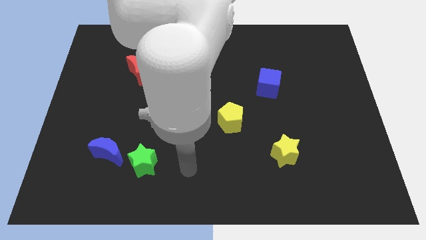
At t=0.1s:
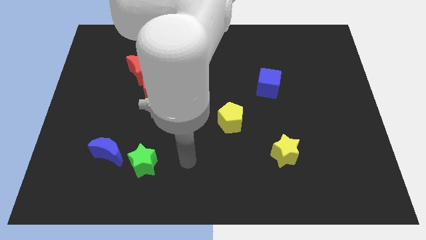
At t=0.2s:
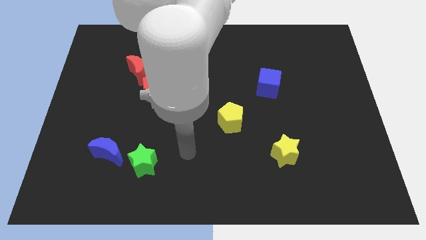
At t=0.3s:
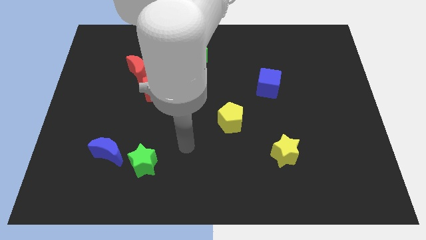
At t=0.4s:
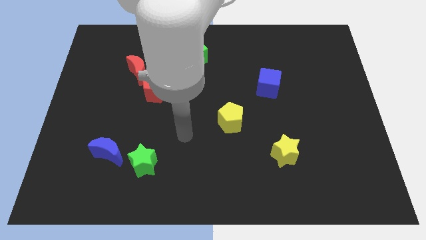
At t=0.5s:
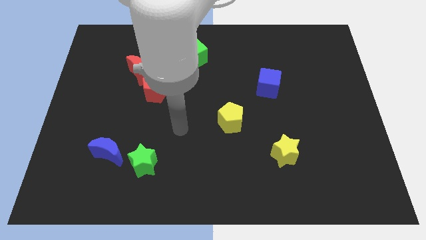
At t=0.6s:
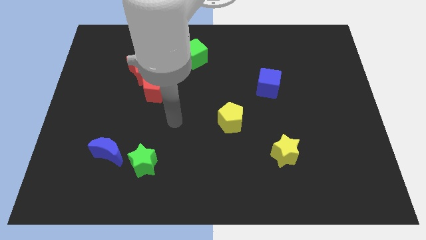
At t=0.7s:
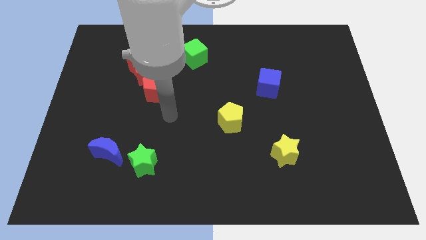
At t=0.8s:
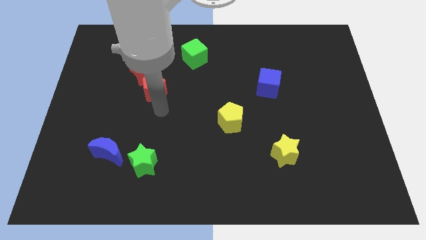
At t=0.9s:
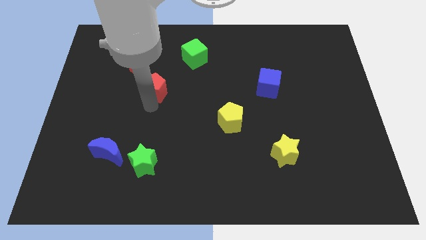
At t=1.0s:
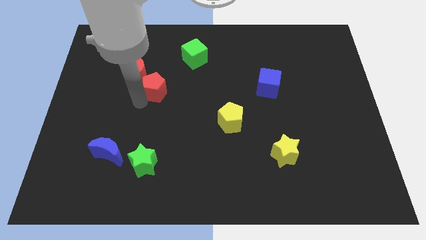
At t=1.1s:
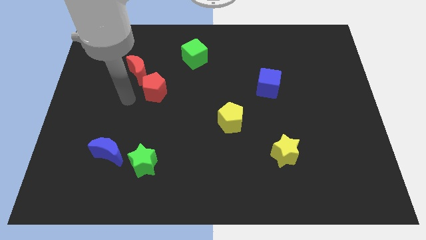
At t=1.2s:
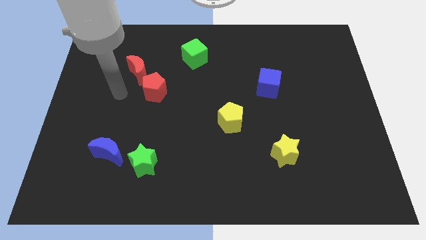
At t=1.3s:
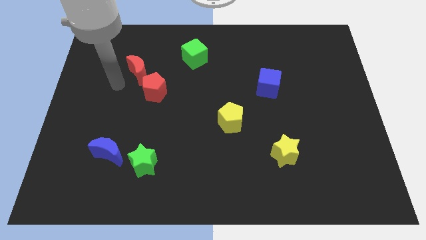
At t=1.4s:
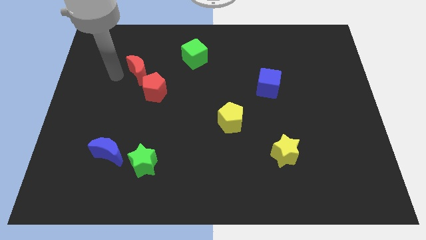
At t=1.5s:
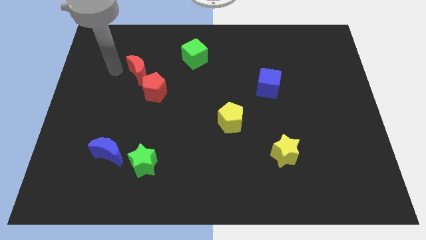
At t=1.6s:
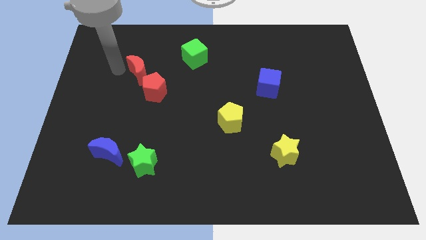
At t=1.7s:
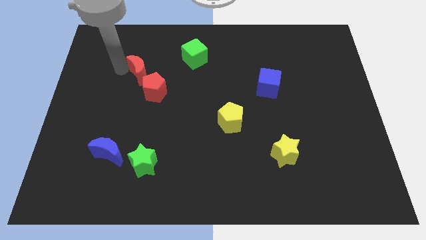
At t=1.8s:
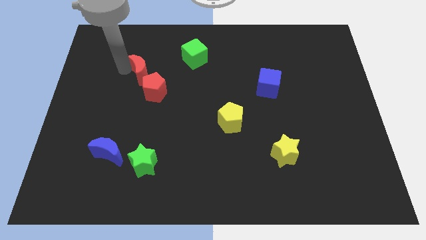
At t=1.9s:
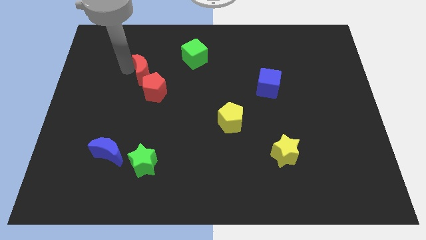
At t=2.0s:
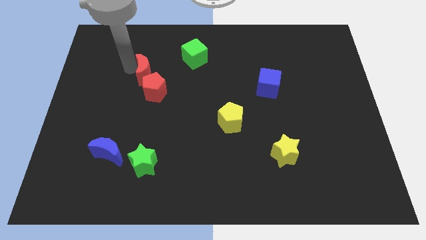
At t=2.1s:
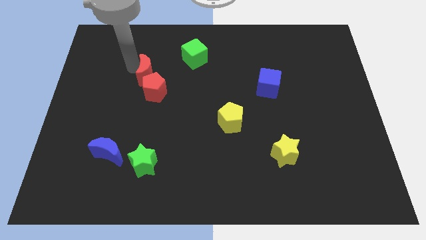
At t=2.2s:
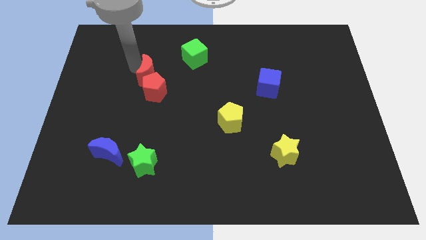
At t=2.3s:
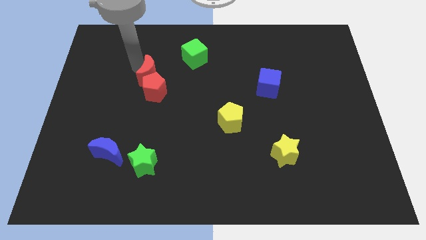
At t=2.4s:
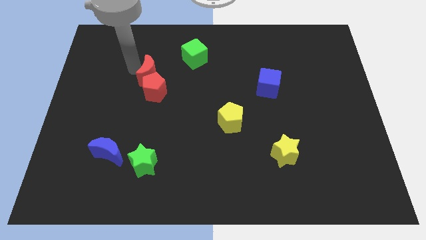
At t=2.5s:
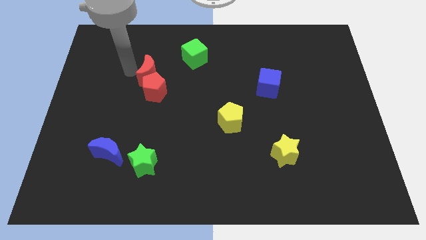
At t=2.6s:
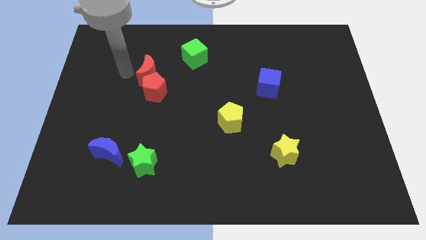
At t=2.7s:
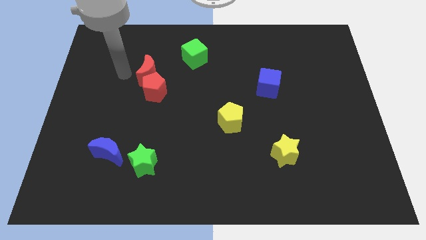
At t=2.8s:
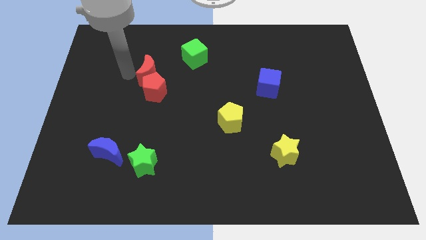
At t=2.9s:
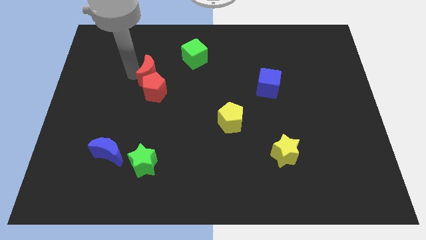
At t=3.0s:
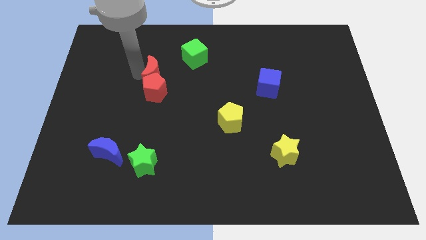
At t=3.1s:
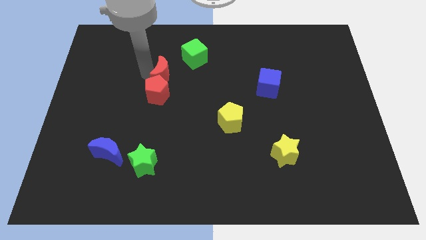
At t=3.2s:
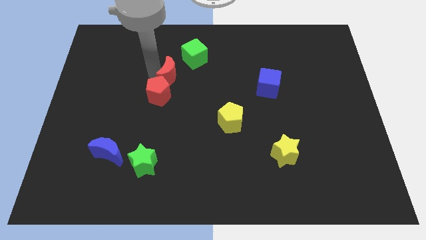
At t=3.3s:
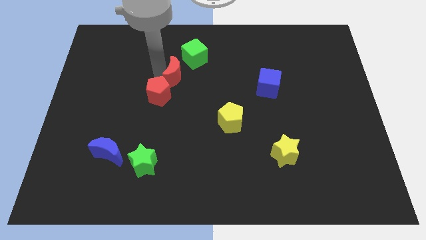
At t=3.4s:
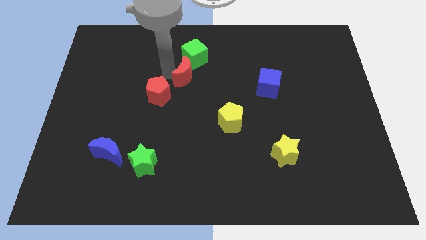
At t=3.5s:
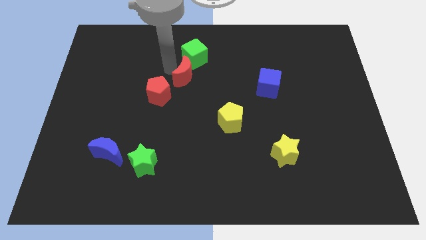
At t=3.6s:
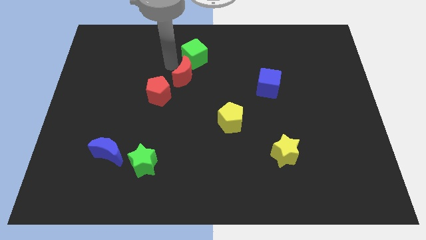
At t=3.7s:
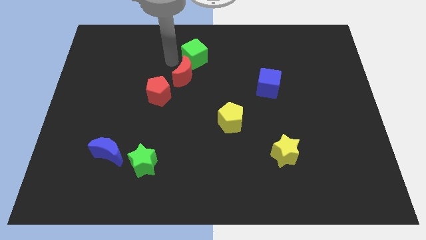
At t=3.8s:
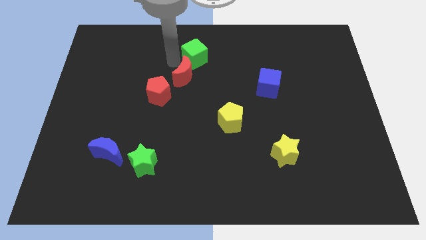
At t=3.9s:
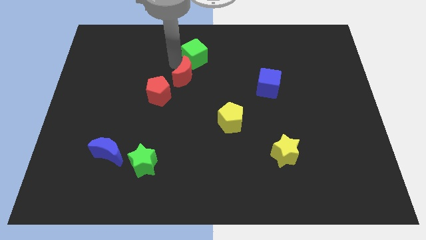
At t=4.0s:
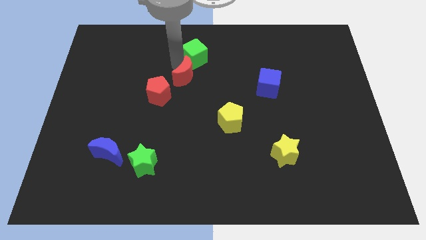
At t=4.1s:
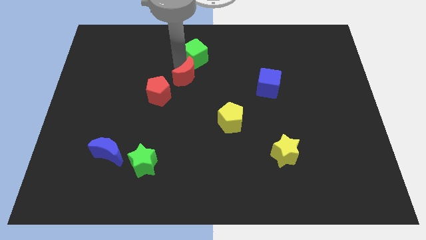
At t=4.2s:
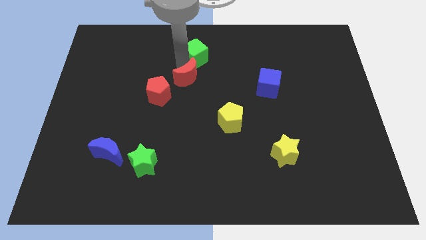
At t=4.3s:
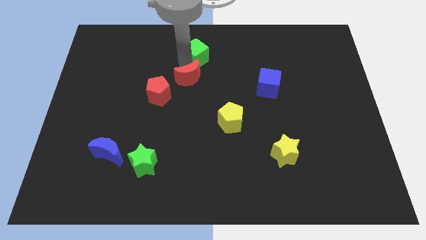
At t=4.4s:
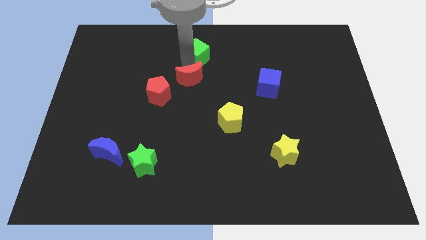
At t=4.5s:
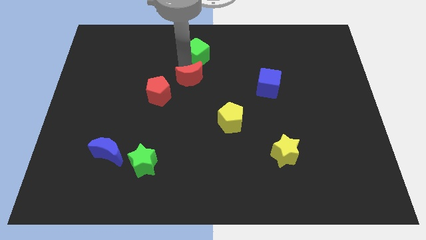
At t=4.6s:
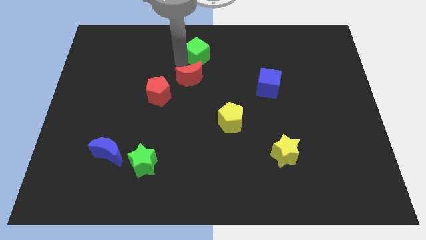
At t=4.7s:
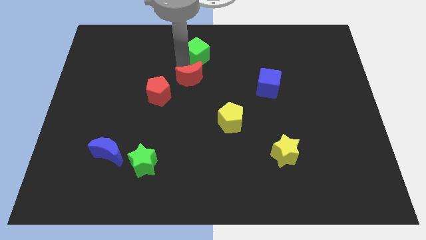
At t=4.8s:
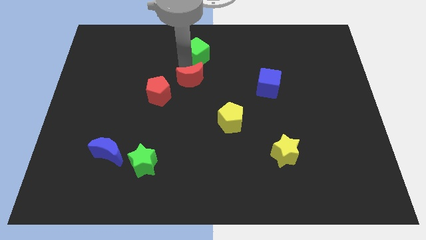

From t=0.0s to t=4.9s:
move the red moon to the right side of the red pentagon

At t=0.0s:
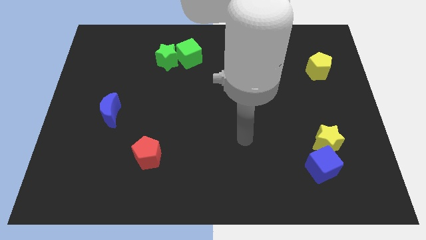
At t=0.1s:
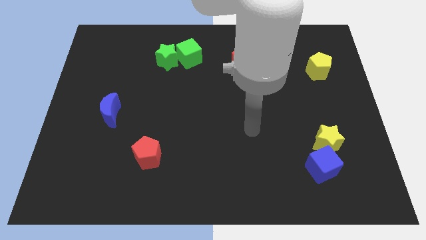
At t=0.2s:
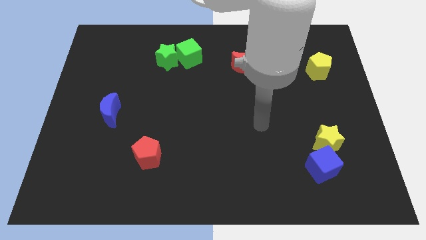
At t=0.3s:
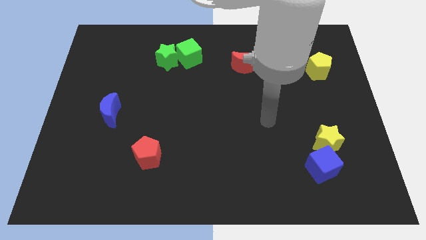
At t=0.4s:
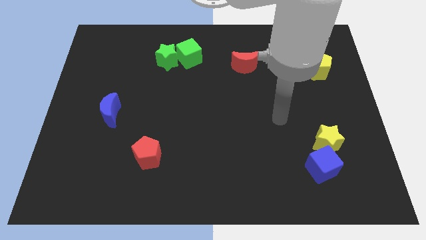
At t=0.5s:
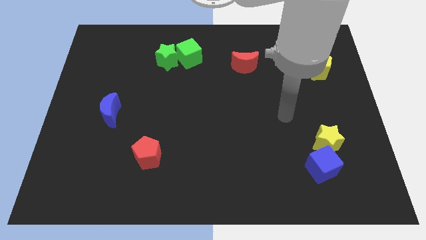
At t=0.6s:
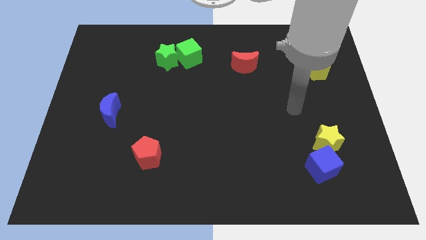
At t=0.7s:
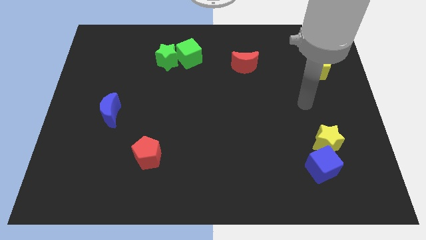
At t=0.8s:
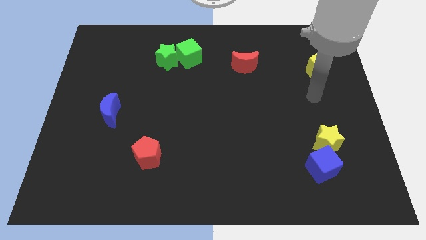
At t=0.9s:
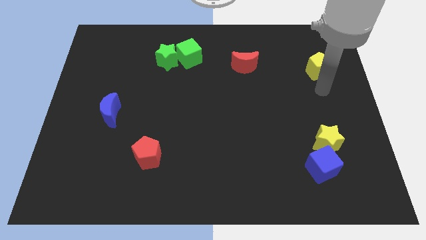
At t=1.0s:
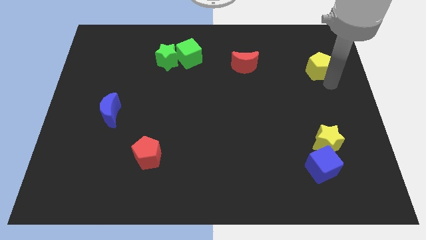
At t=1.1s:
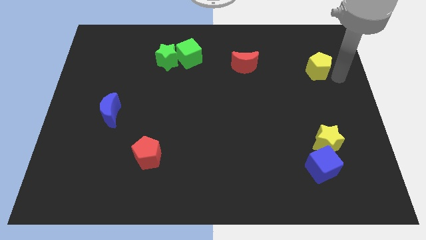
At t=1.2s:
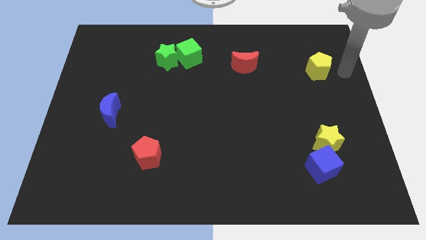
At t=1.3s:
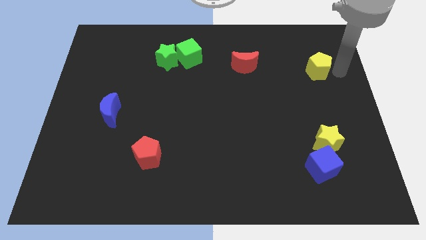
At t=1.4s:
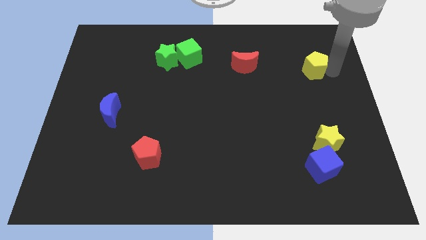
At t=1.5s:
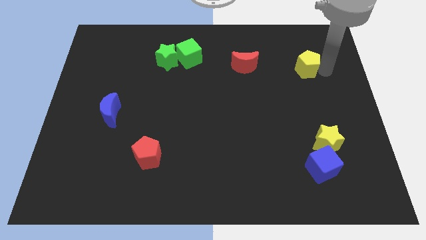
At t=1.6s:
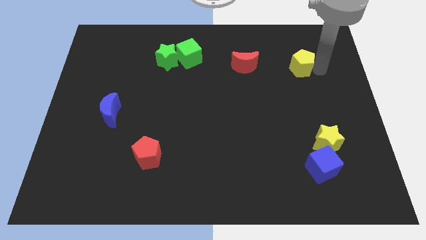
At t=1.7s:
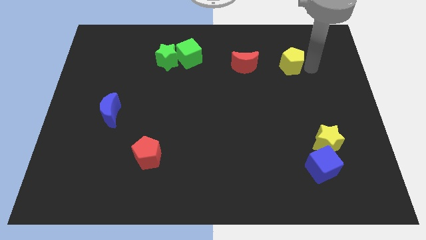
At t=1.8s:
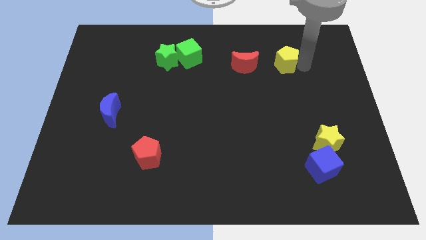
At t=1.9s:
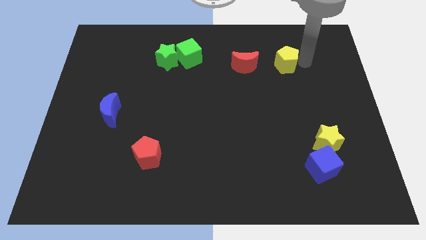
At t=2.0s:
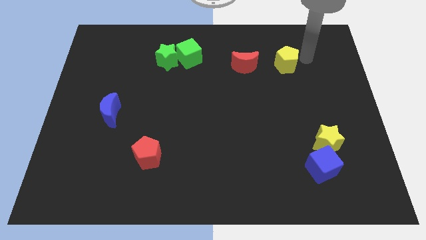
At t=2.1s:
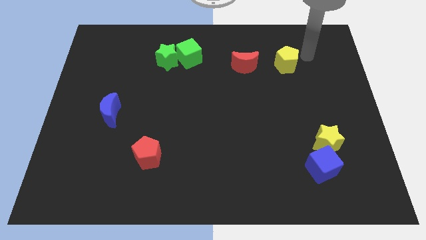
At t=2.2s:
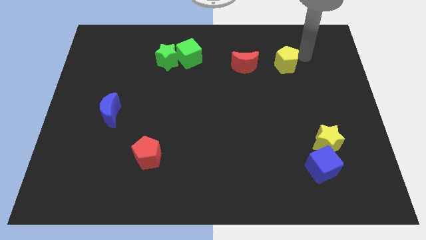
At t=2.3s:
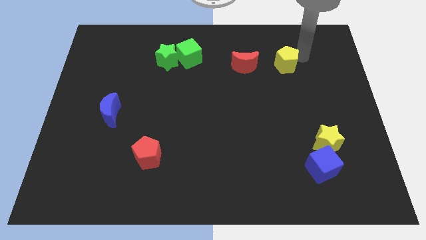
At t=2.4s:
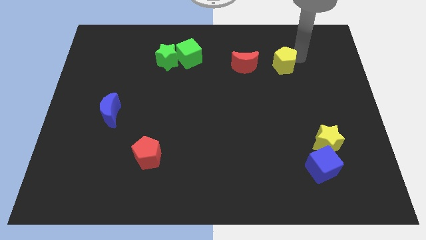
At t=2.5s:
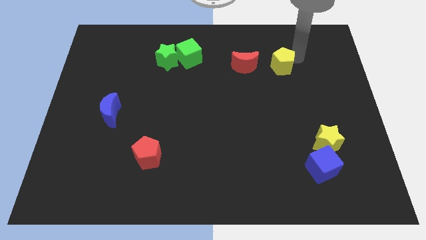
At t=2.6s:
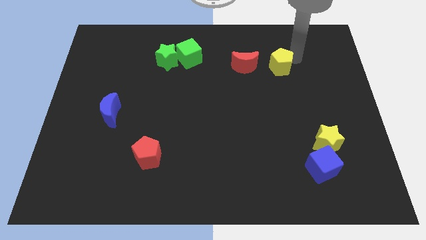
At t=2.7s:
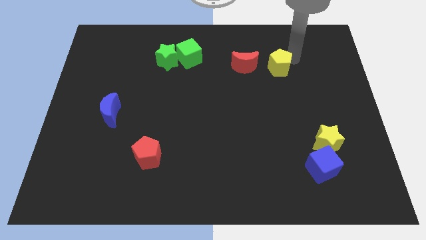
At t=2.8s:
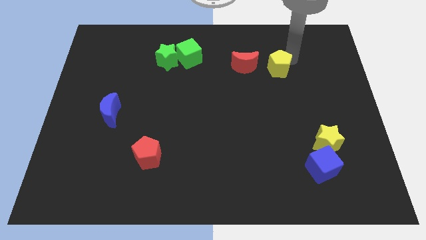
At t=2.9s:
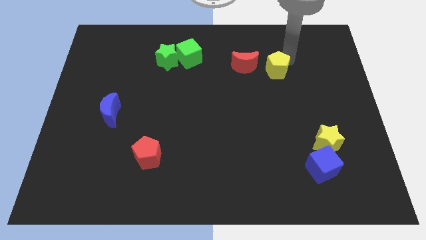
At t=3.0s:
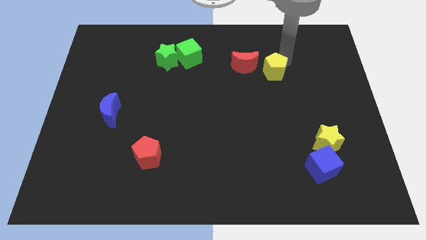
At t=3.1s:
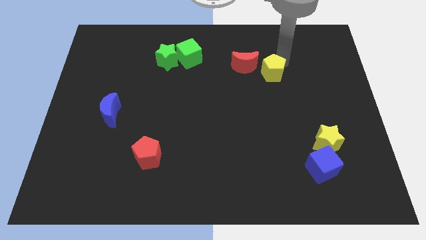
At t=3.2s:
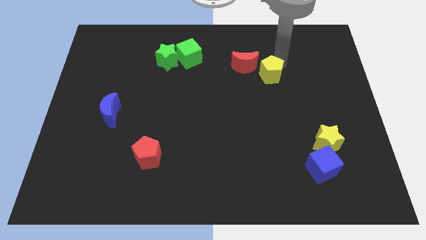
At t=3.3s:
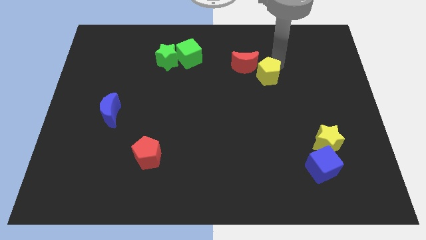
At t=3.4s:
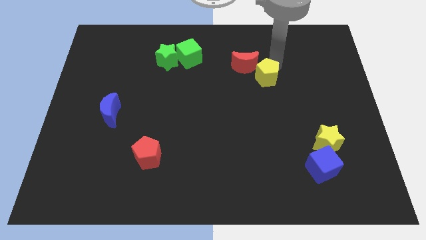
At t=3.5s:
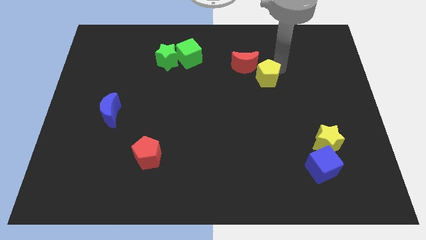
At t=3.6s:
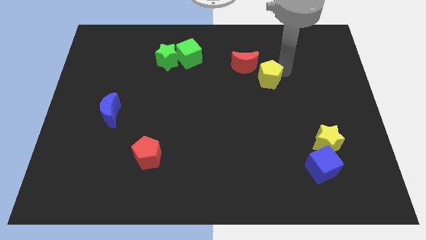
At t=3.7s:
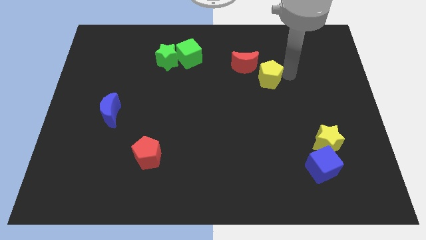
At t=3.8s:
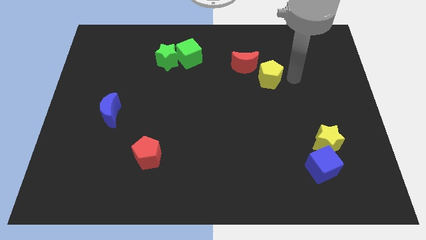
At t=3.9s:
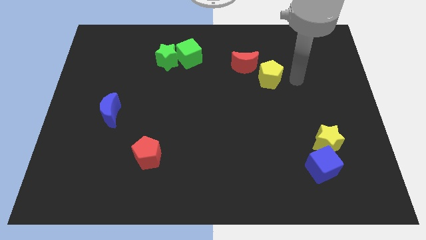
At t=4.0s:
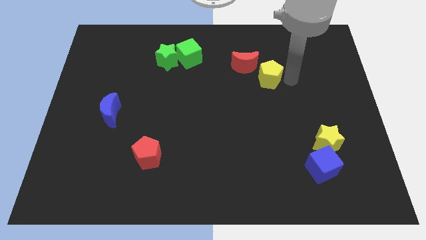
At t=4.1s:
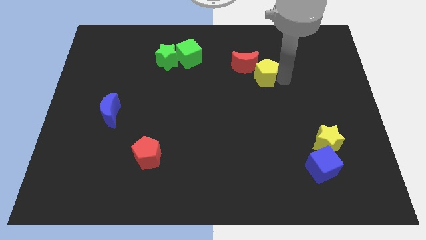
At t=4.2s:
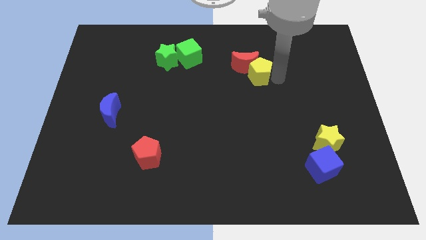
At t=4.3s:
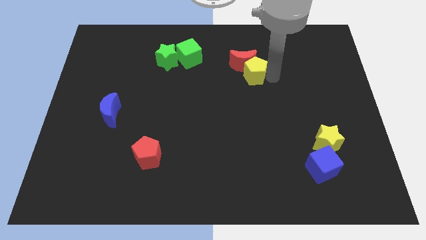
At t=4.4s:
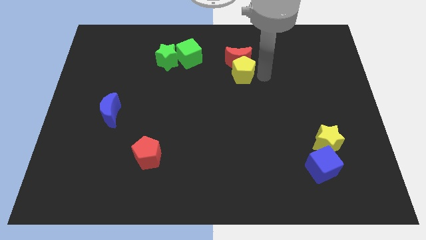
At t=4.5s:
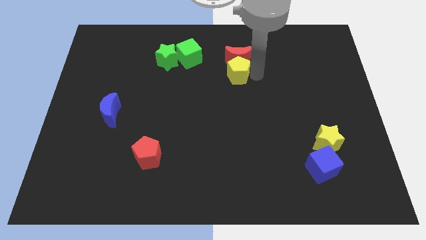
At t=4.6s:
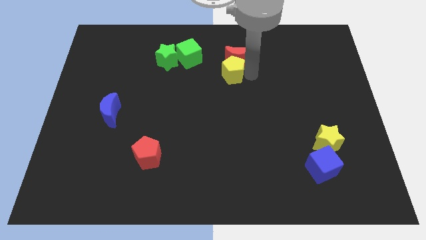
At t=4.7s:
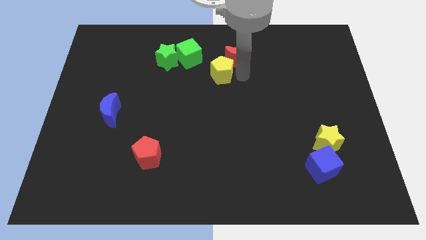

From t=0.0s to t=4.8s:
push the yellow pentagon to the left of the red moon
